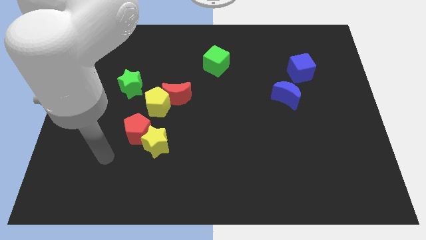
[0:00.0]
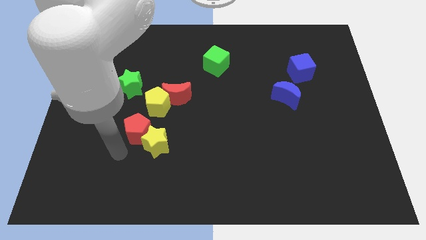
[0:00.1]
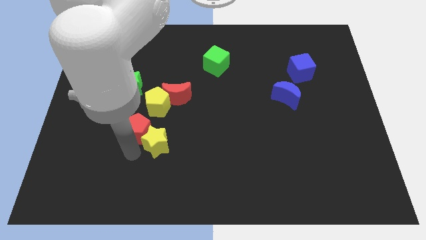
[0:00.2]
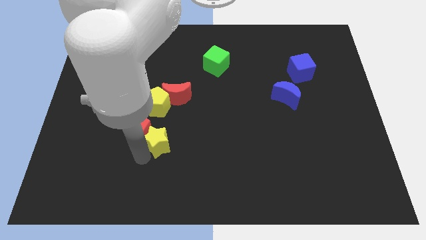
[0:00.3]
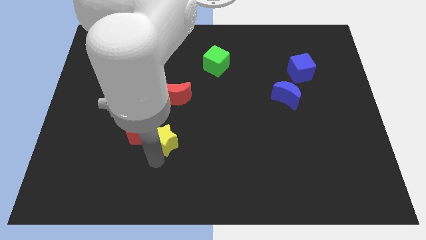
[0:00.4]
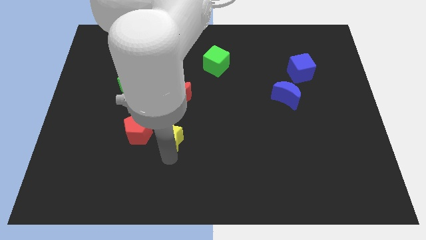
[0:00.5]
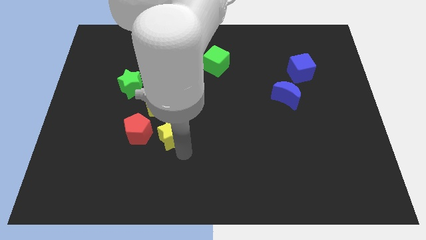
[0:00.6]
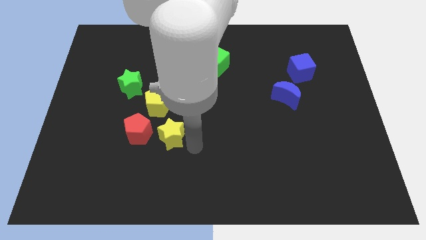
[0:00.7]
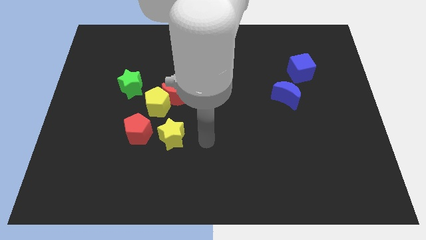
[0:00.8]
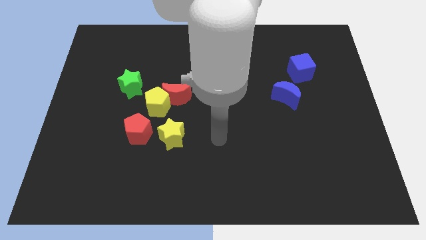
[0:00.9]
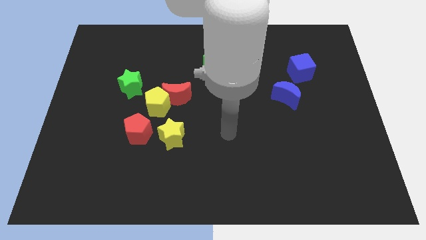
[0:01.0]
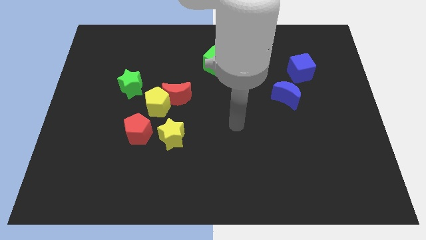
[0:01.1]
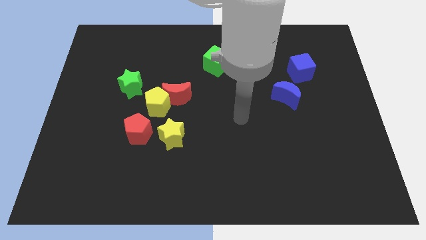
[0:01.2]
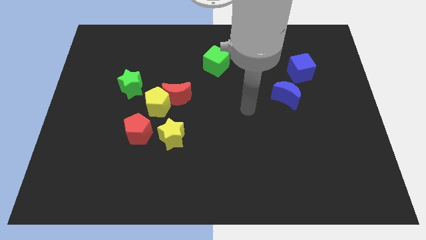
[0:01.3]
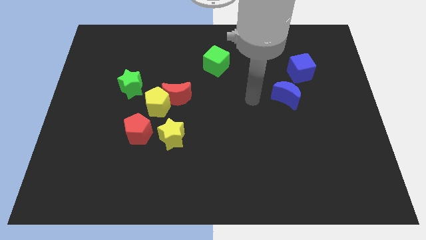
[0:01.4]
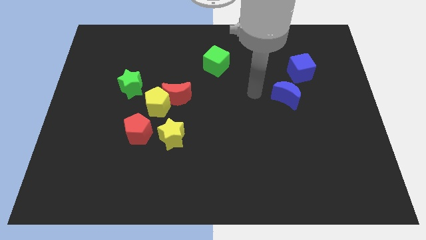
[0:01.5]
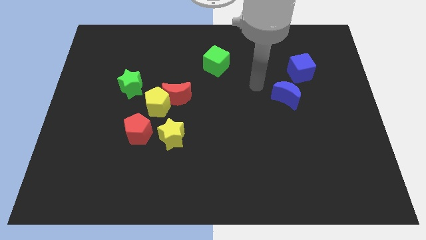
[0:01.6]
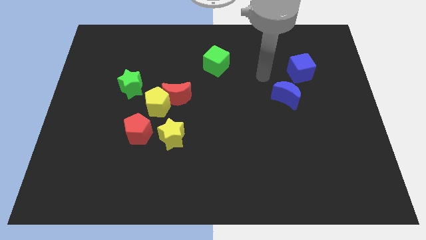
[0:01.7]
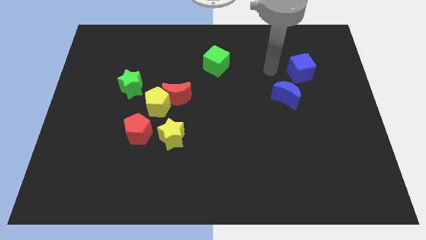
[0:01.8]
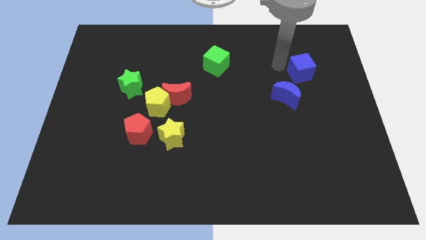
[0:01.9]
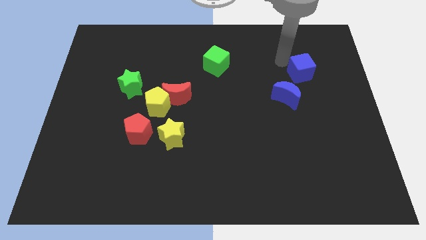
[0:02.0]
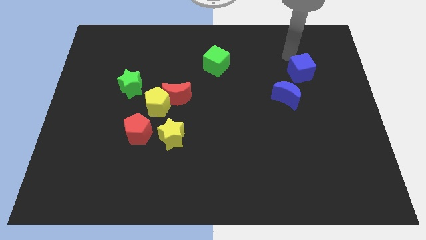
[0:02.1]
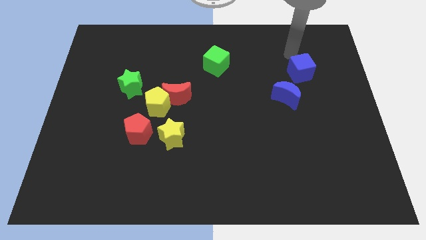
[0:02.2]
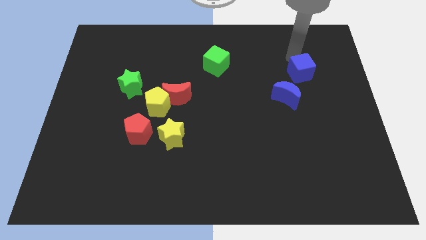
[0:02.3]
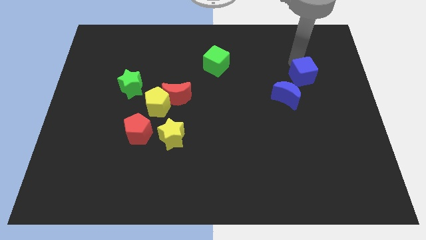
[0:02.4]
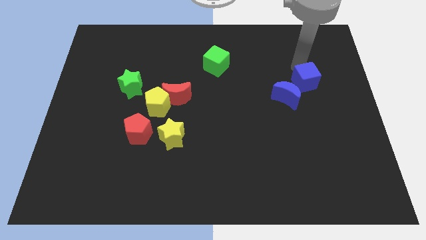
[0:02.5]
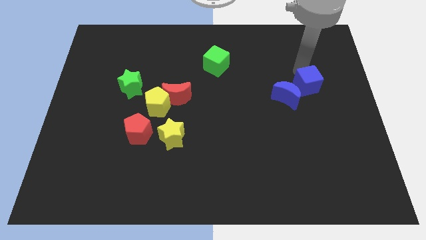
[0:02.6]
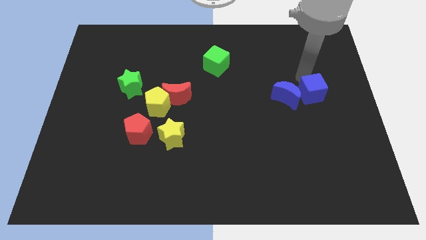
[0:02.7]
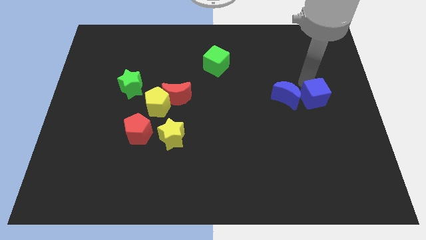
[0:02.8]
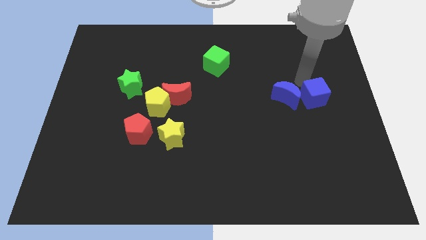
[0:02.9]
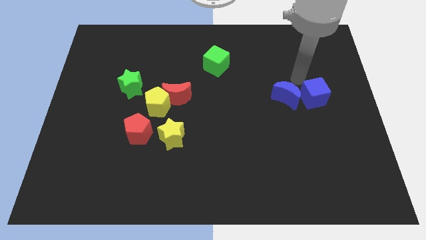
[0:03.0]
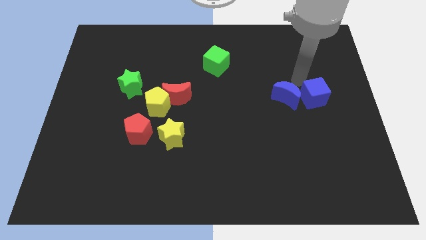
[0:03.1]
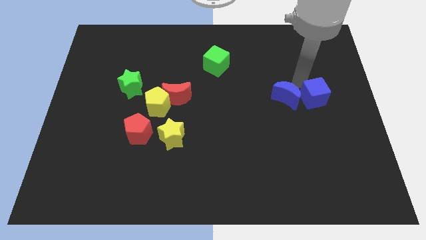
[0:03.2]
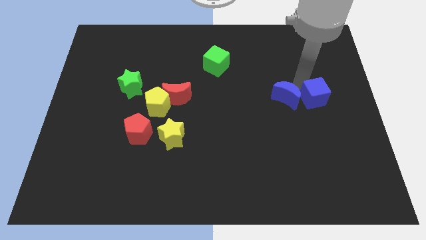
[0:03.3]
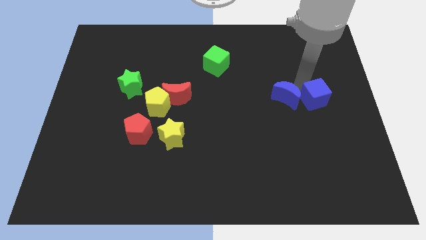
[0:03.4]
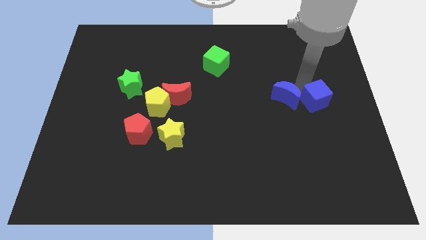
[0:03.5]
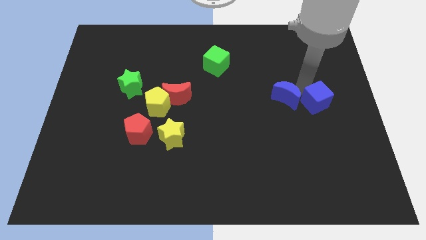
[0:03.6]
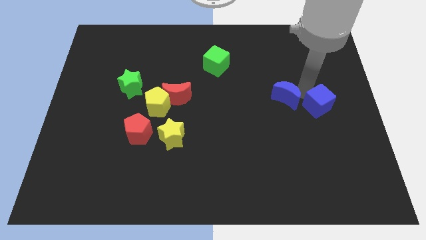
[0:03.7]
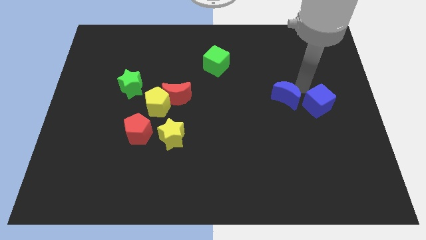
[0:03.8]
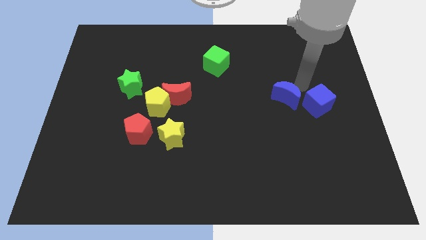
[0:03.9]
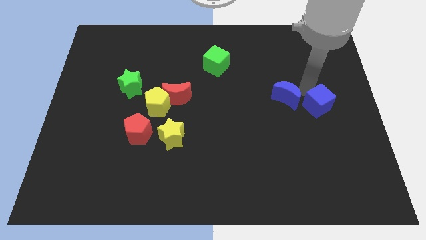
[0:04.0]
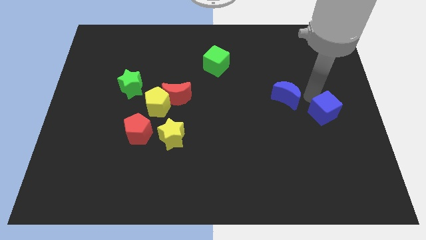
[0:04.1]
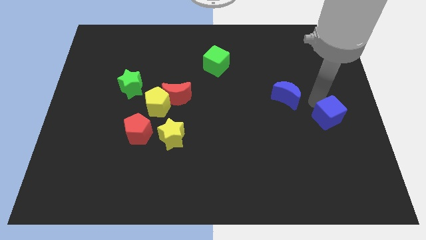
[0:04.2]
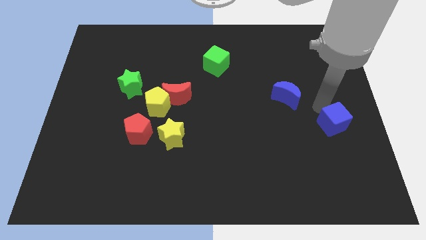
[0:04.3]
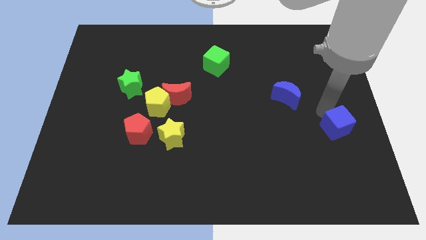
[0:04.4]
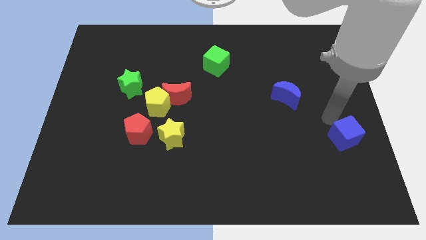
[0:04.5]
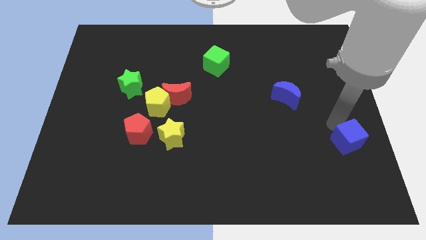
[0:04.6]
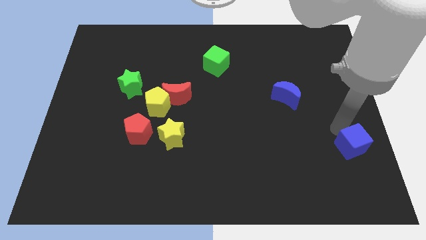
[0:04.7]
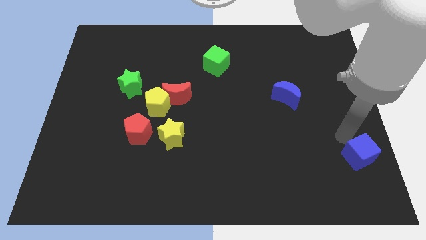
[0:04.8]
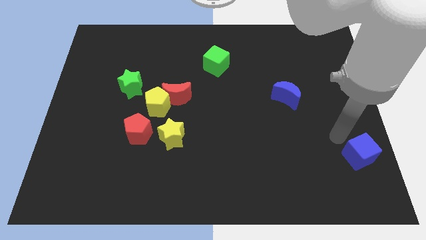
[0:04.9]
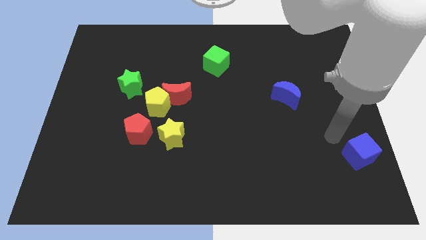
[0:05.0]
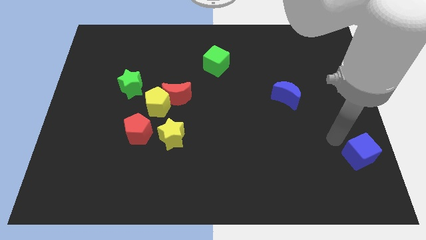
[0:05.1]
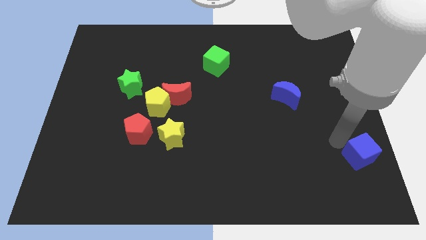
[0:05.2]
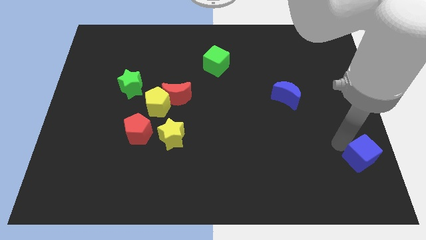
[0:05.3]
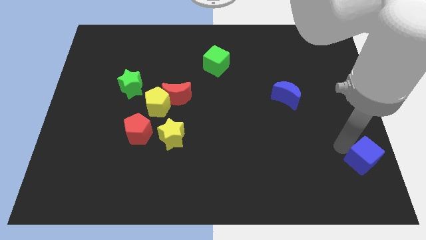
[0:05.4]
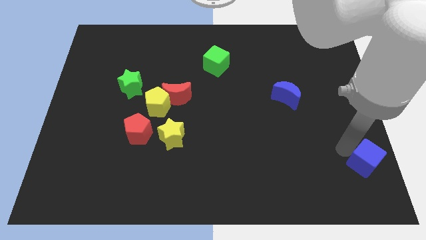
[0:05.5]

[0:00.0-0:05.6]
push the blue cube to the bottom right
